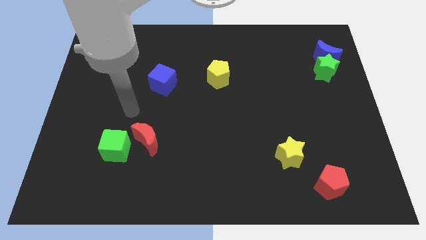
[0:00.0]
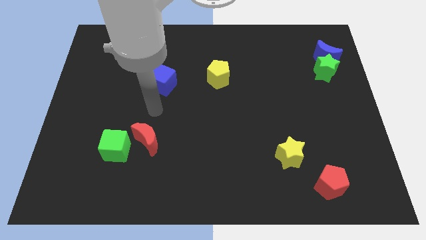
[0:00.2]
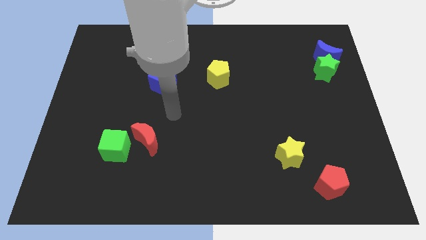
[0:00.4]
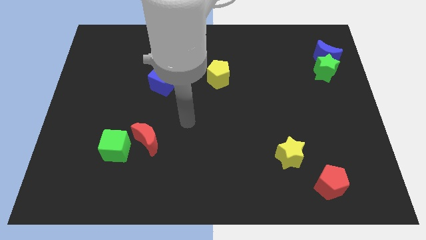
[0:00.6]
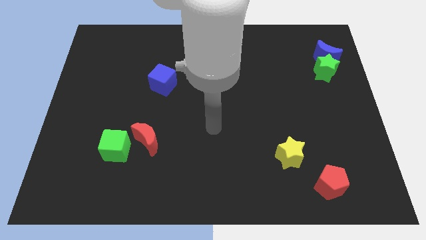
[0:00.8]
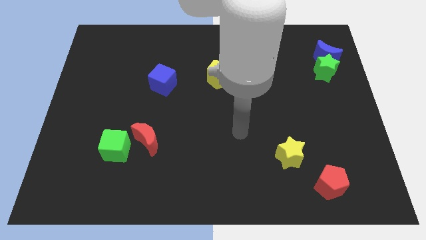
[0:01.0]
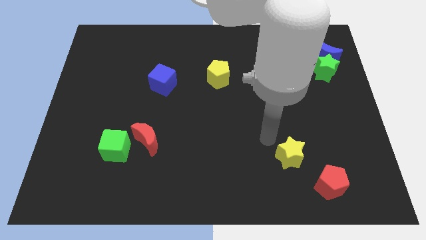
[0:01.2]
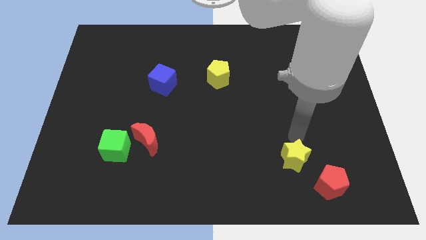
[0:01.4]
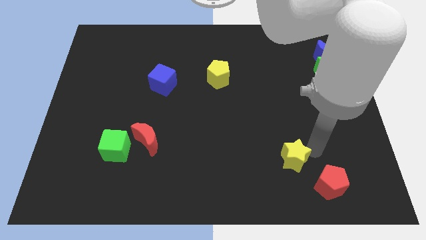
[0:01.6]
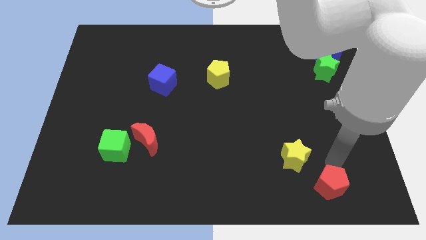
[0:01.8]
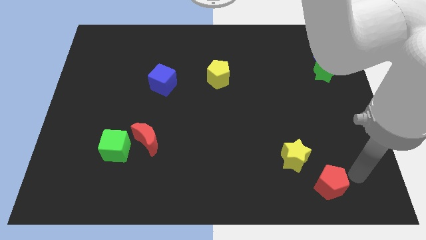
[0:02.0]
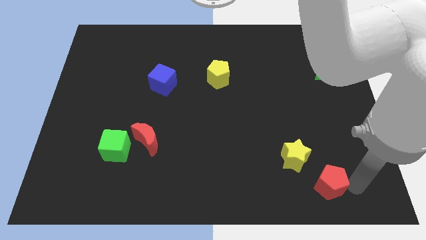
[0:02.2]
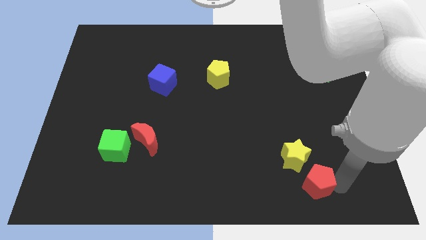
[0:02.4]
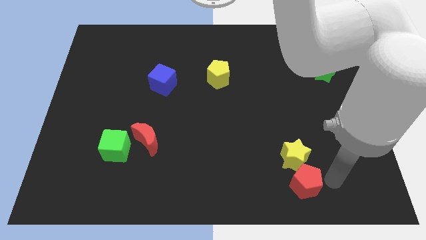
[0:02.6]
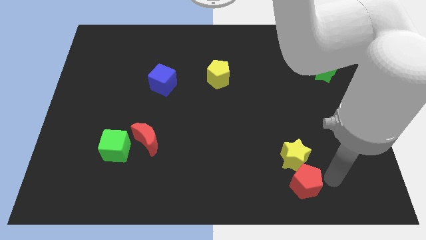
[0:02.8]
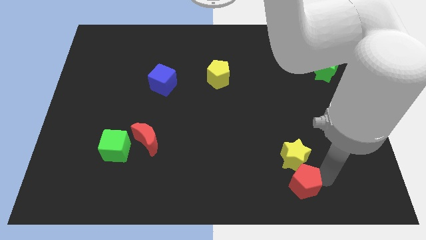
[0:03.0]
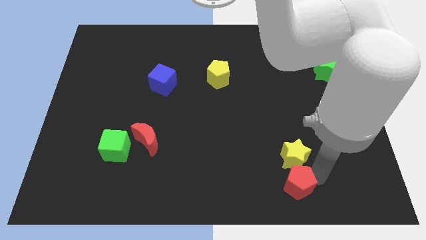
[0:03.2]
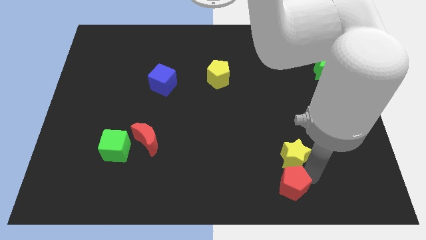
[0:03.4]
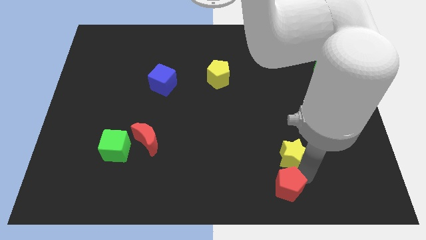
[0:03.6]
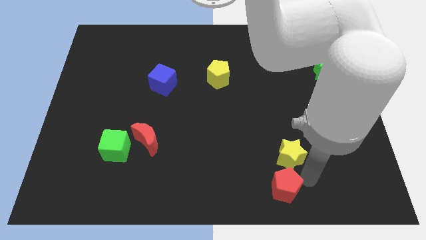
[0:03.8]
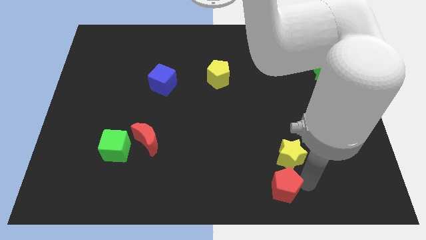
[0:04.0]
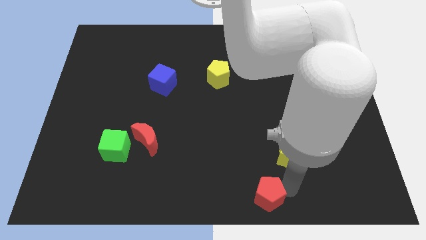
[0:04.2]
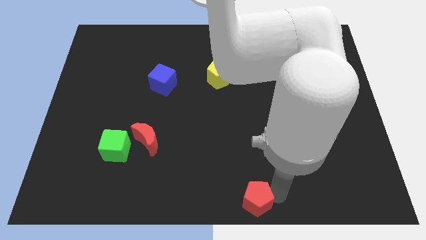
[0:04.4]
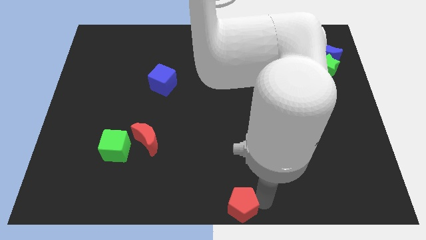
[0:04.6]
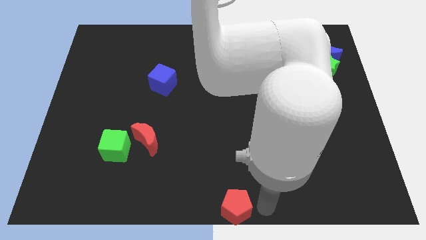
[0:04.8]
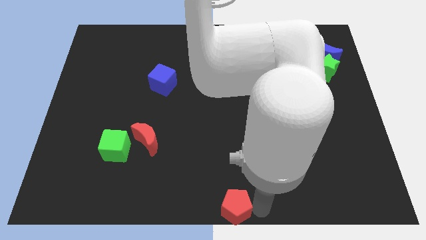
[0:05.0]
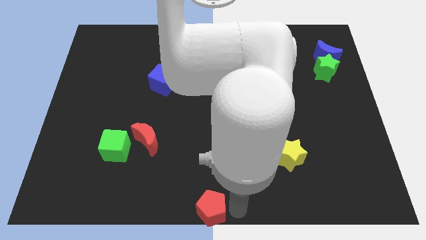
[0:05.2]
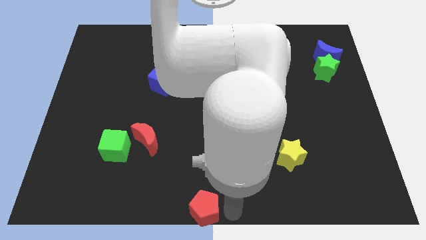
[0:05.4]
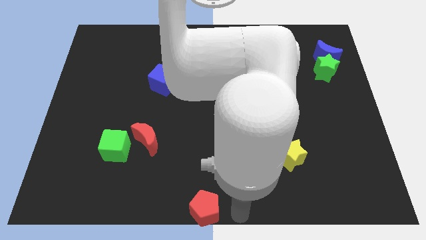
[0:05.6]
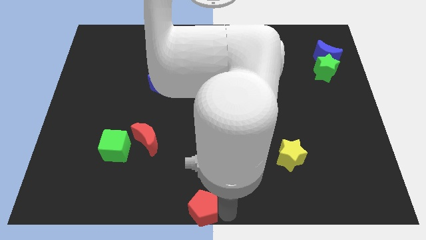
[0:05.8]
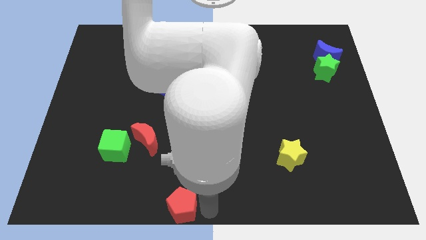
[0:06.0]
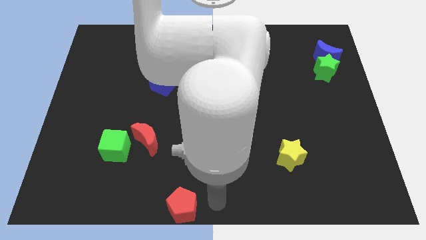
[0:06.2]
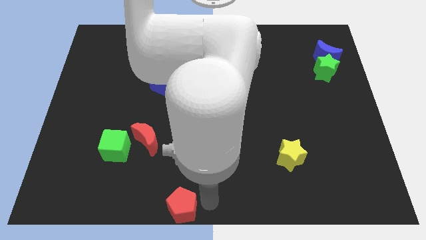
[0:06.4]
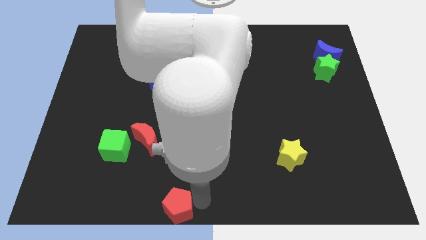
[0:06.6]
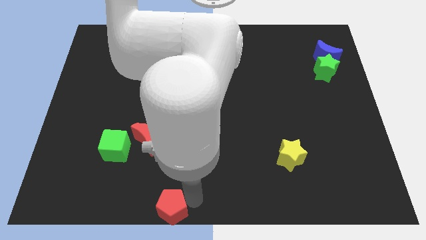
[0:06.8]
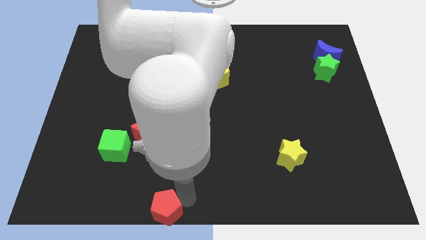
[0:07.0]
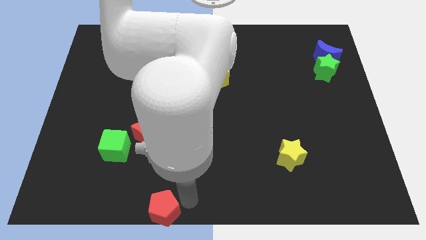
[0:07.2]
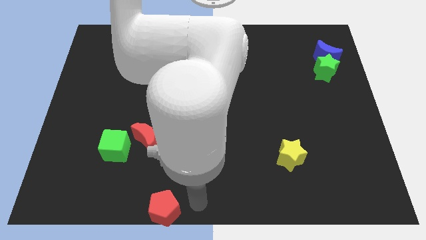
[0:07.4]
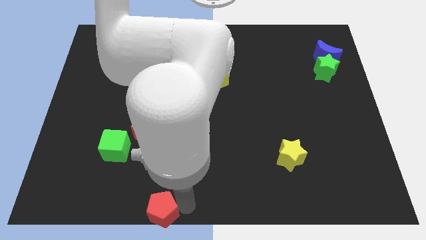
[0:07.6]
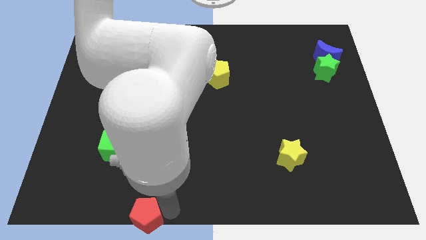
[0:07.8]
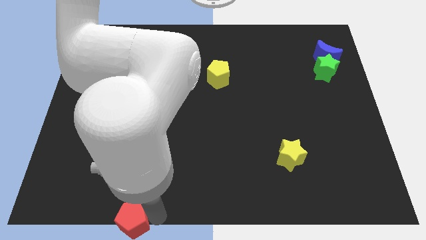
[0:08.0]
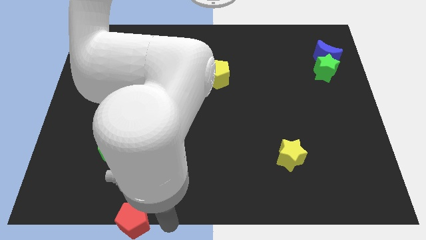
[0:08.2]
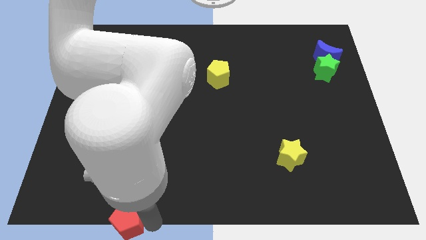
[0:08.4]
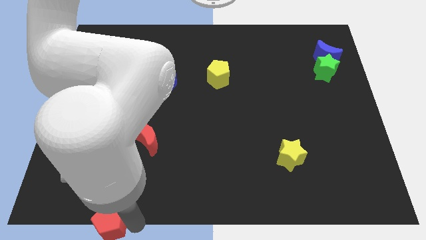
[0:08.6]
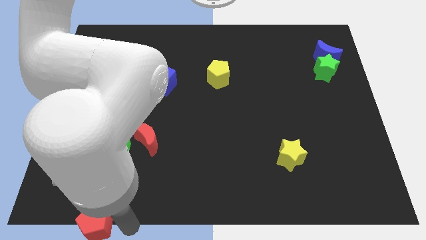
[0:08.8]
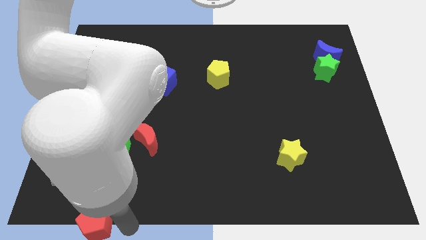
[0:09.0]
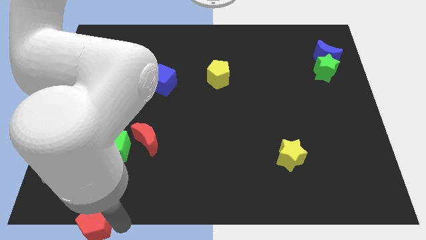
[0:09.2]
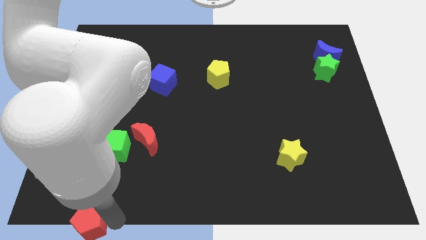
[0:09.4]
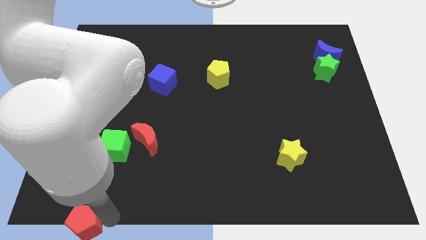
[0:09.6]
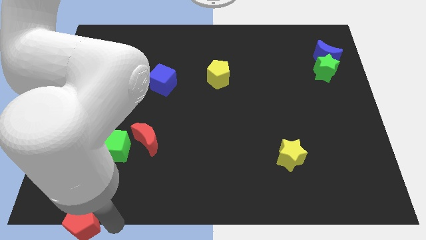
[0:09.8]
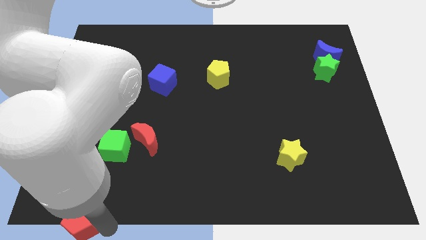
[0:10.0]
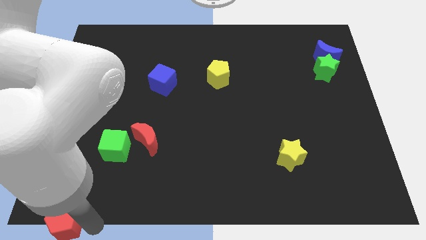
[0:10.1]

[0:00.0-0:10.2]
slide the red pentagon to the lower left corner

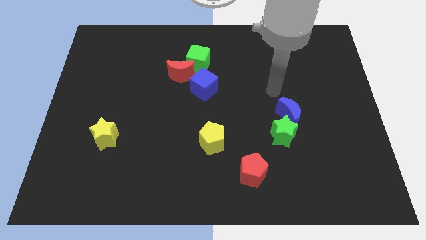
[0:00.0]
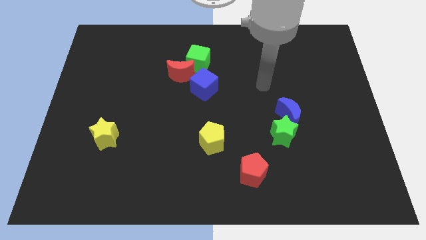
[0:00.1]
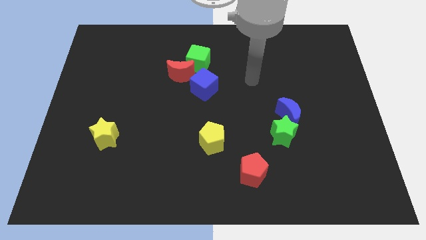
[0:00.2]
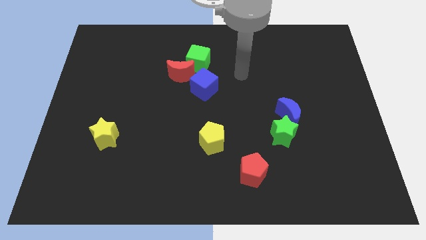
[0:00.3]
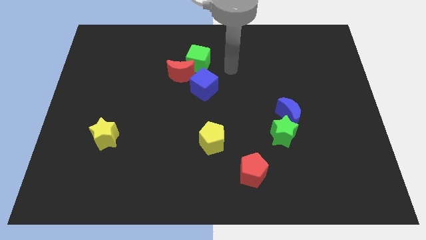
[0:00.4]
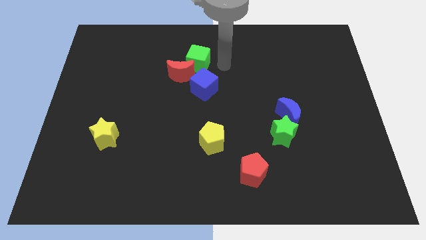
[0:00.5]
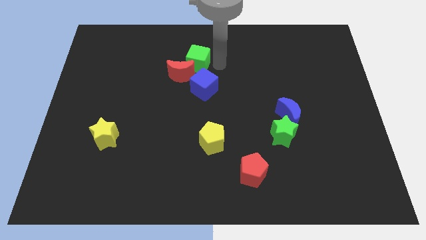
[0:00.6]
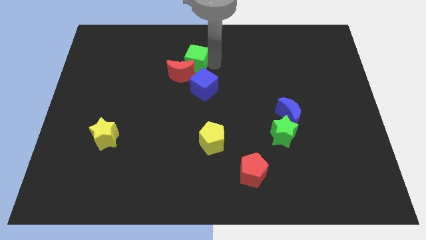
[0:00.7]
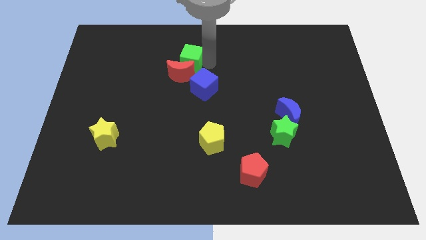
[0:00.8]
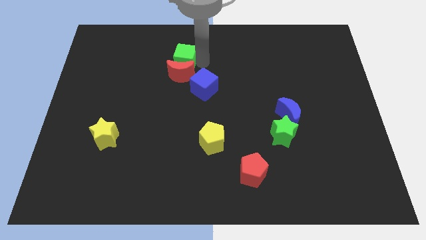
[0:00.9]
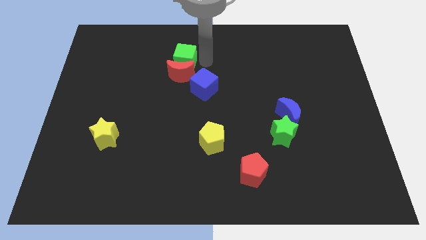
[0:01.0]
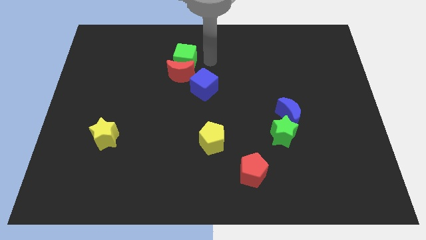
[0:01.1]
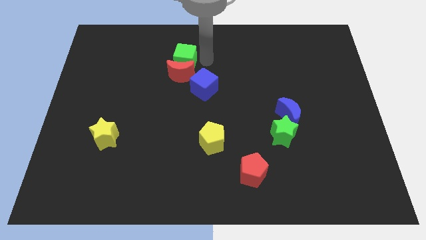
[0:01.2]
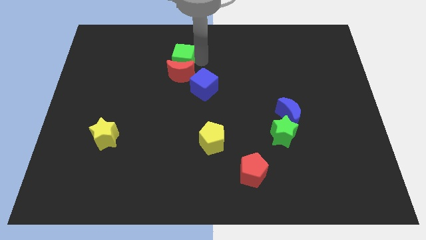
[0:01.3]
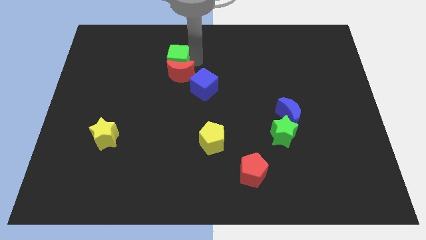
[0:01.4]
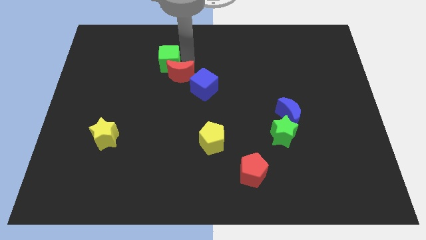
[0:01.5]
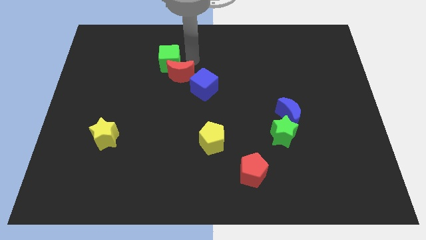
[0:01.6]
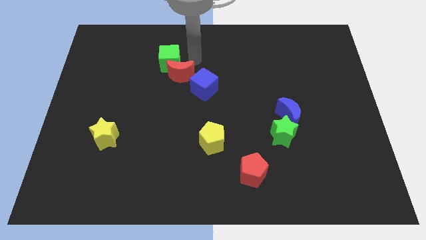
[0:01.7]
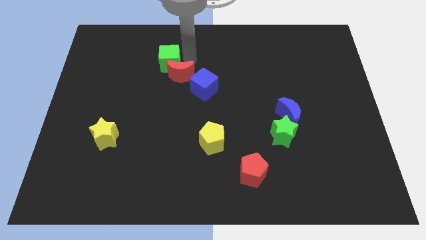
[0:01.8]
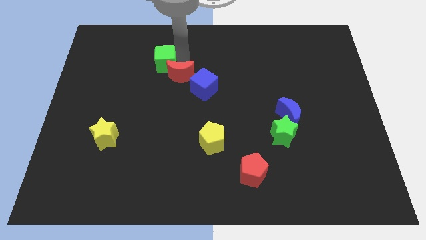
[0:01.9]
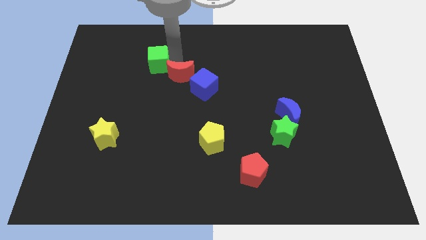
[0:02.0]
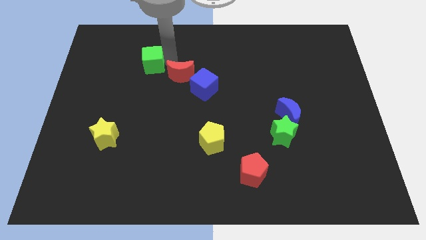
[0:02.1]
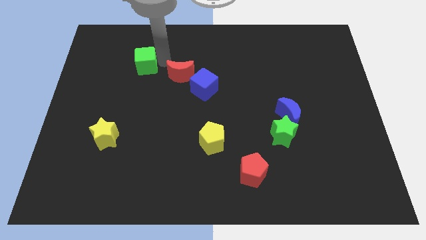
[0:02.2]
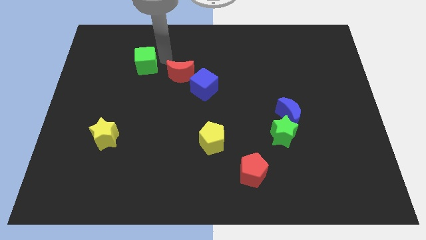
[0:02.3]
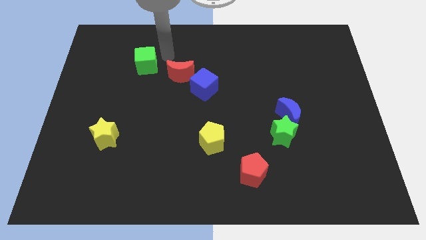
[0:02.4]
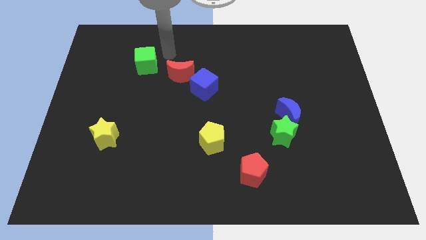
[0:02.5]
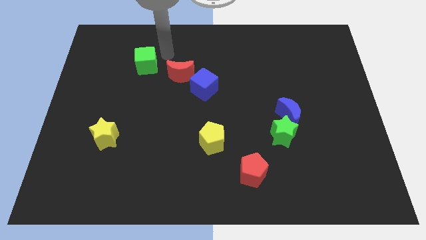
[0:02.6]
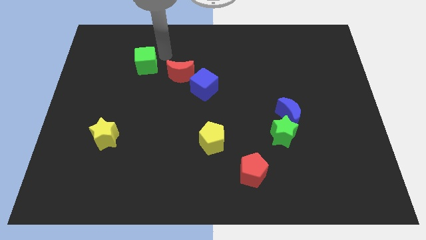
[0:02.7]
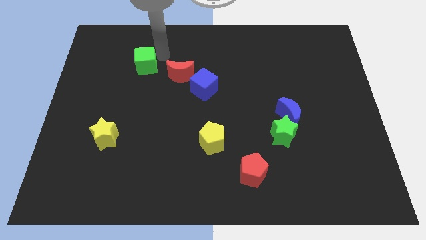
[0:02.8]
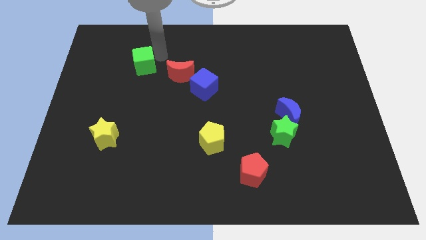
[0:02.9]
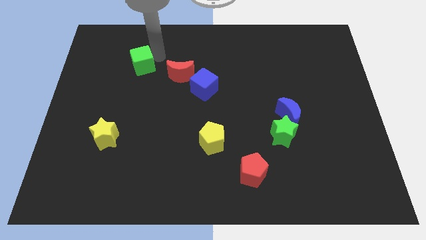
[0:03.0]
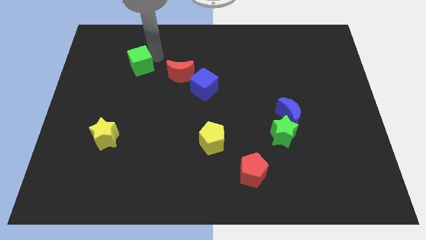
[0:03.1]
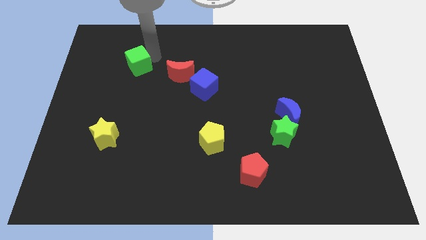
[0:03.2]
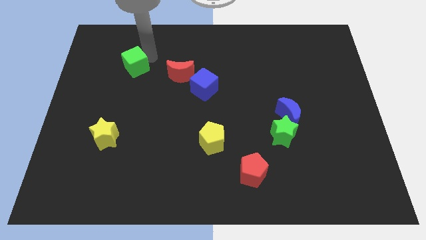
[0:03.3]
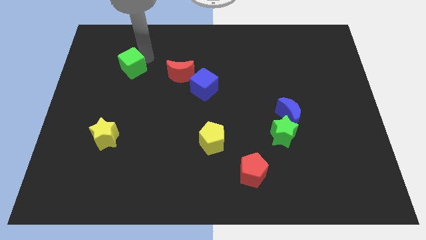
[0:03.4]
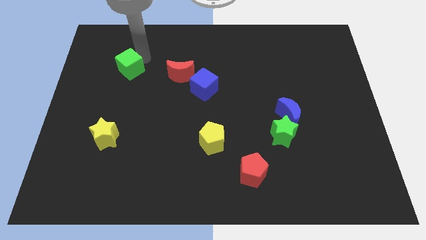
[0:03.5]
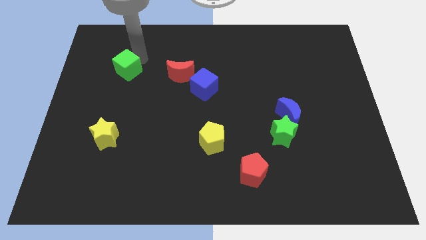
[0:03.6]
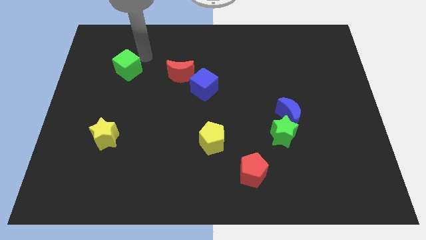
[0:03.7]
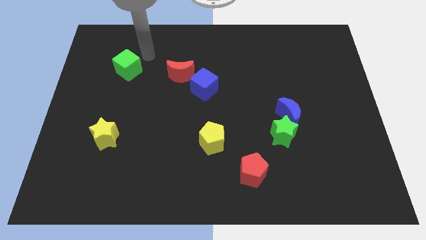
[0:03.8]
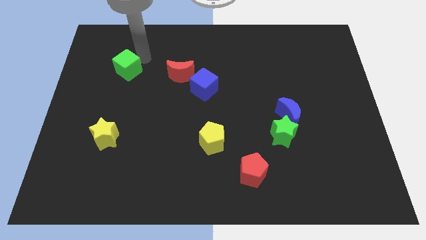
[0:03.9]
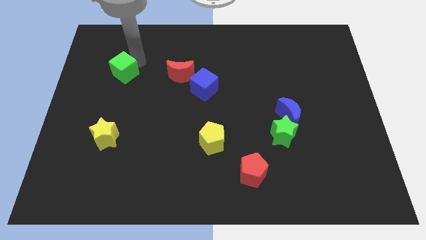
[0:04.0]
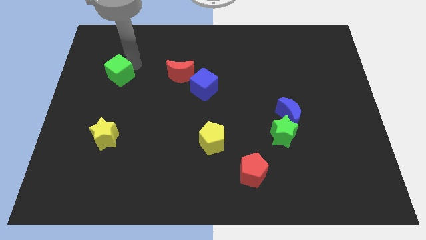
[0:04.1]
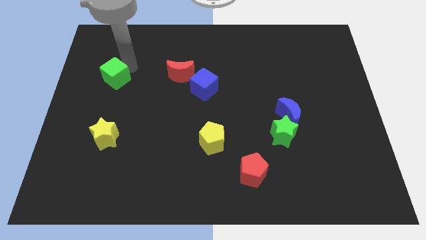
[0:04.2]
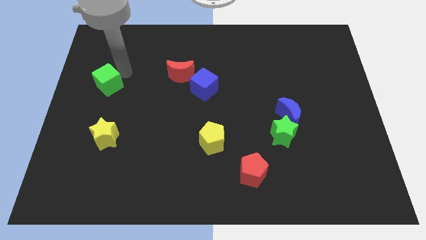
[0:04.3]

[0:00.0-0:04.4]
slide the green cube to the left side
